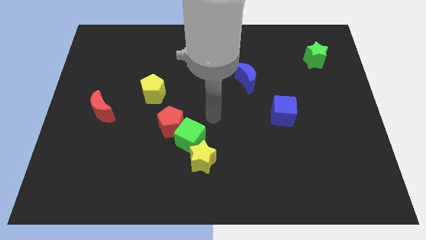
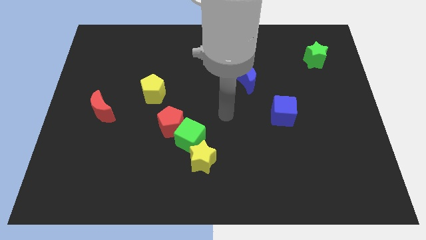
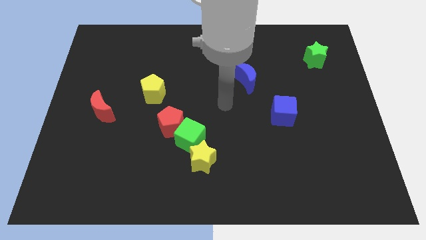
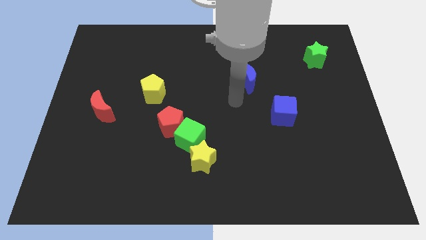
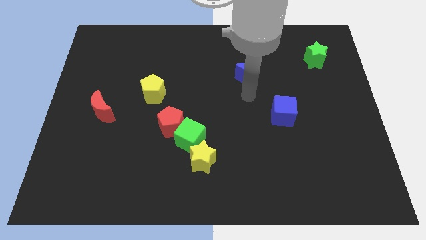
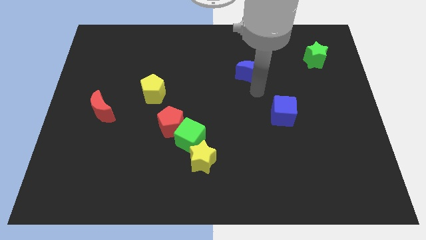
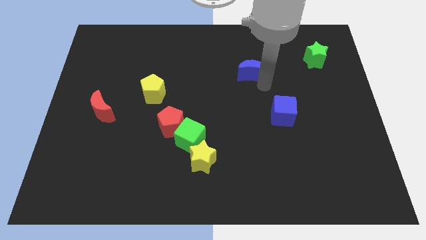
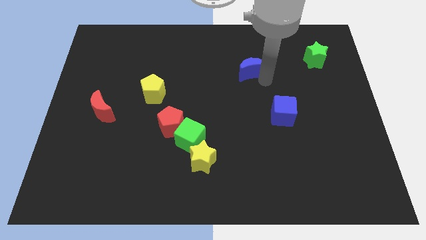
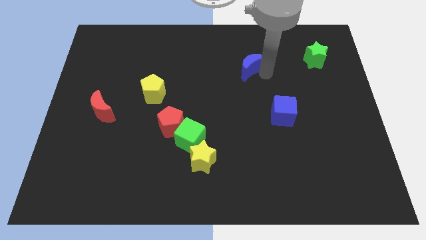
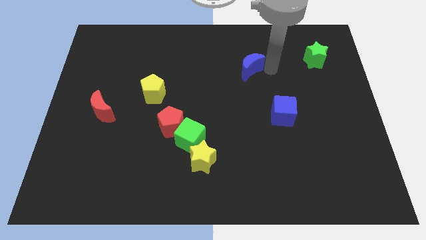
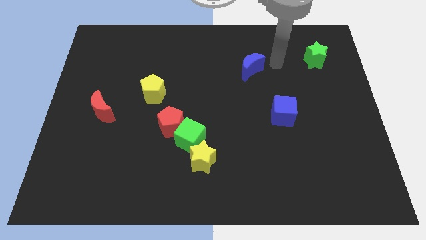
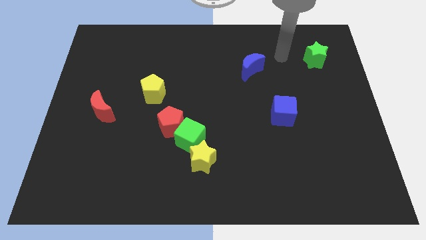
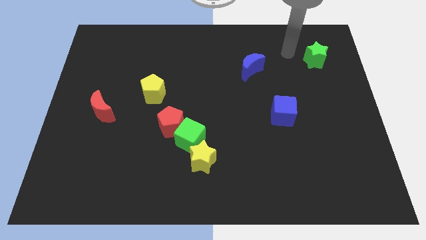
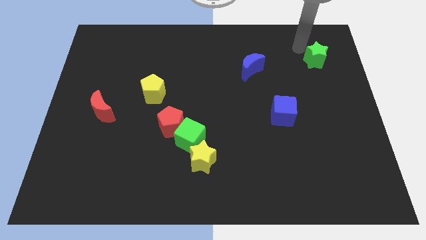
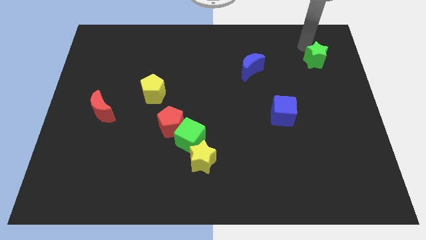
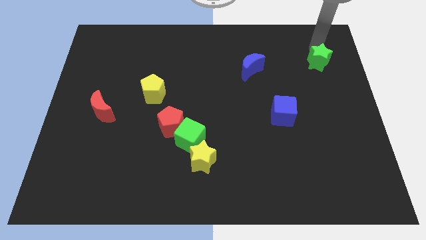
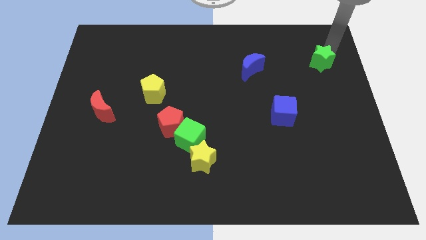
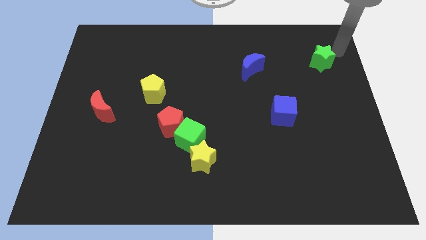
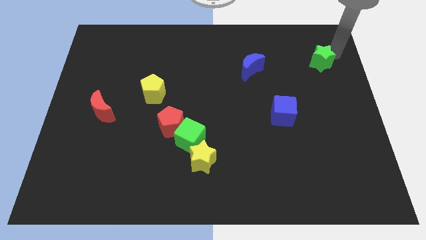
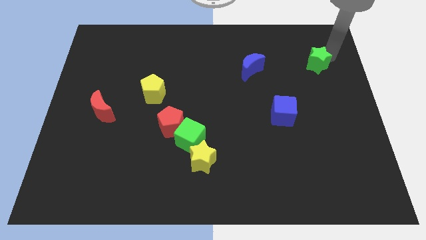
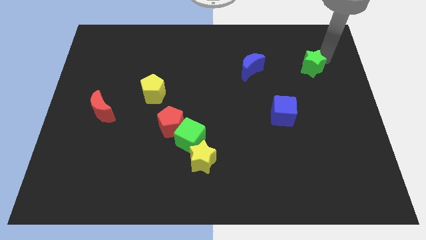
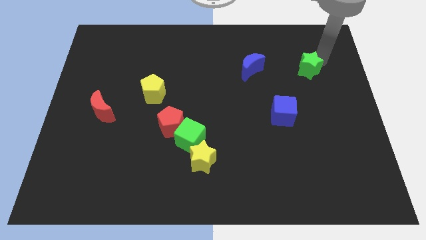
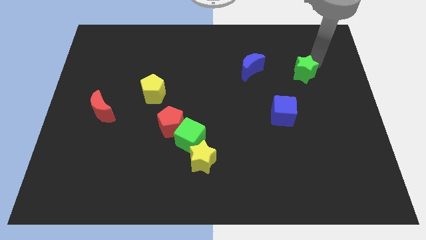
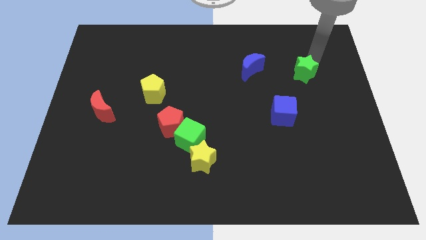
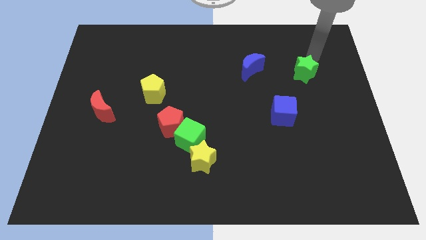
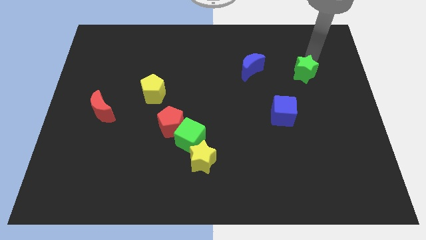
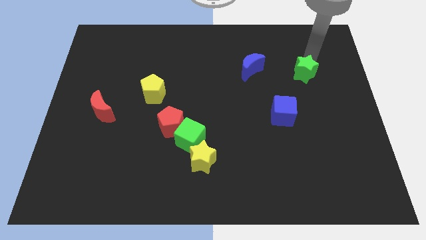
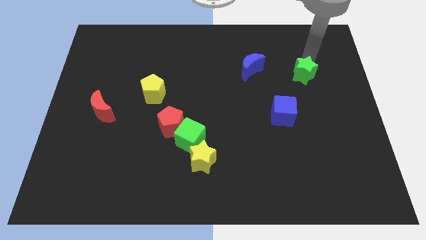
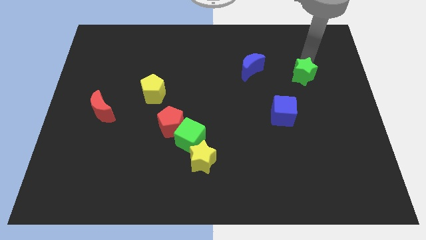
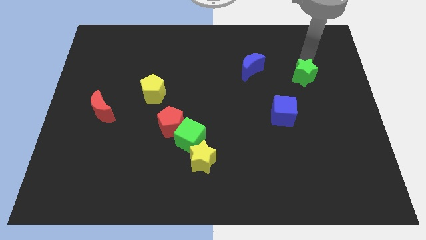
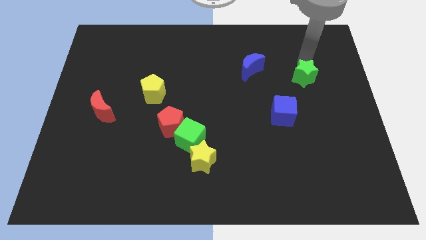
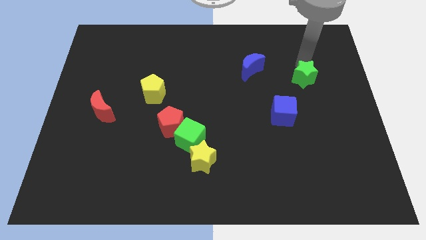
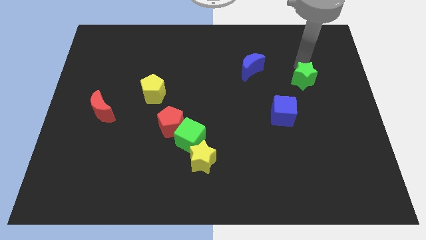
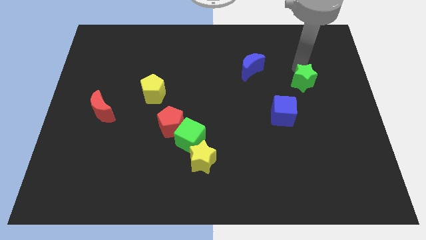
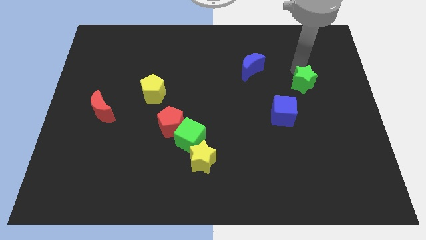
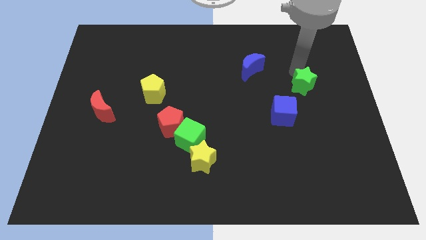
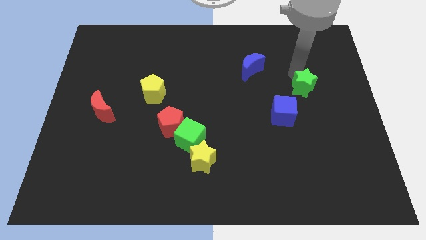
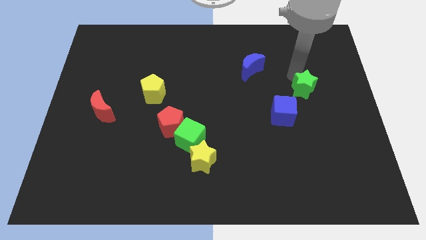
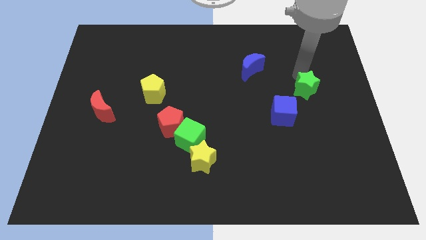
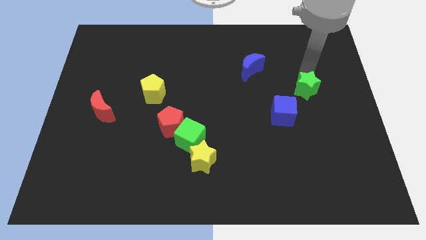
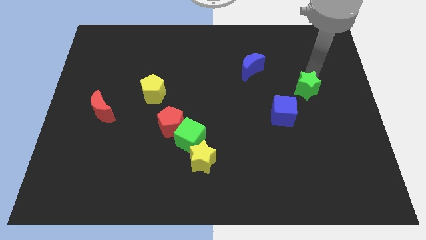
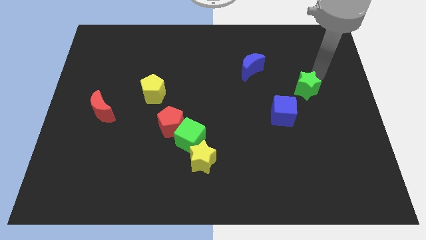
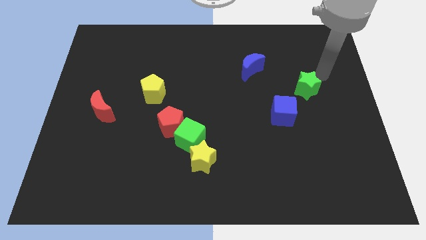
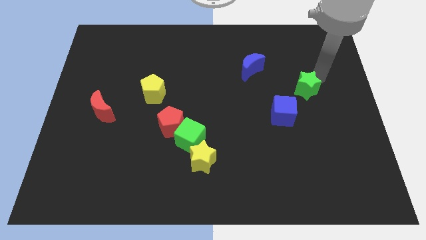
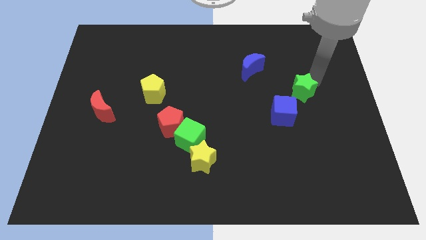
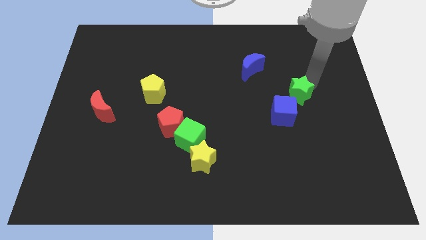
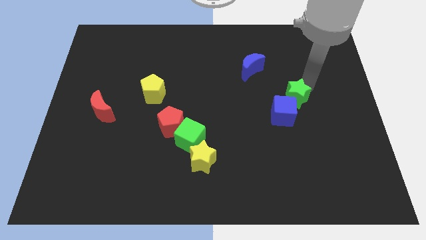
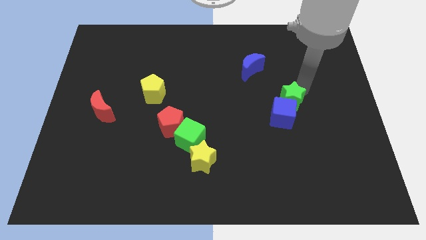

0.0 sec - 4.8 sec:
push the green star to the blue cube

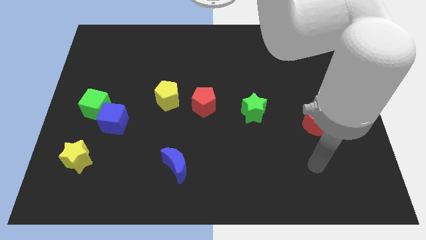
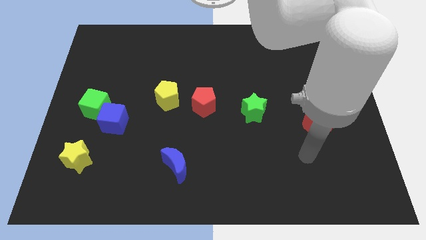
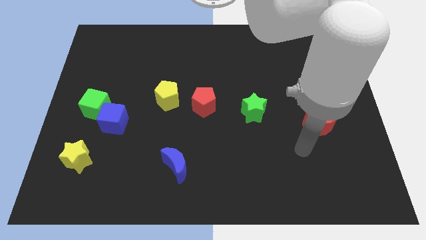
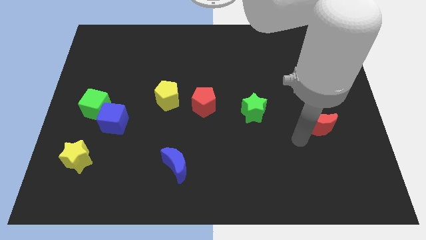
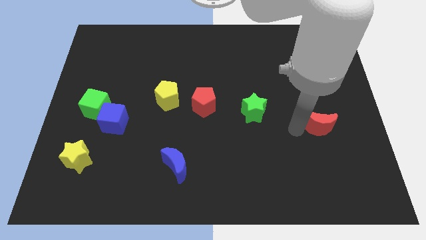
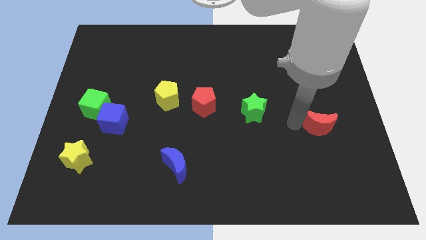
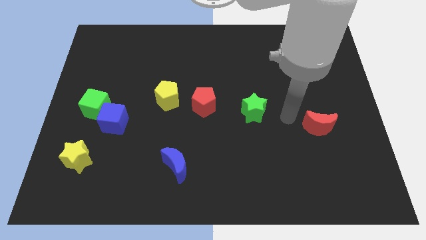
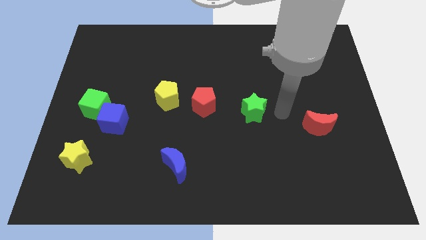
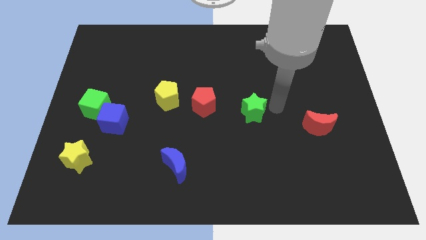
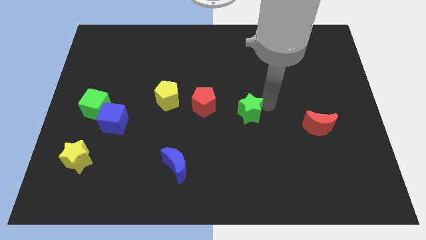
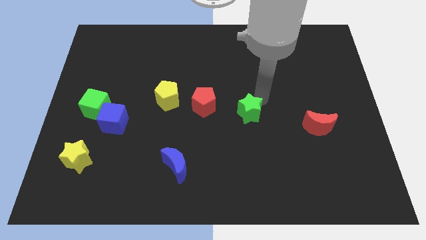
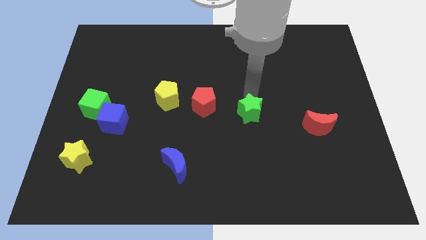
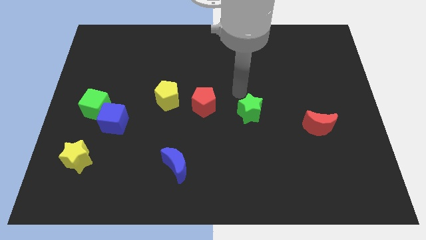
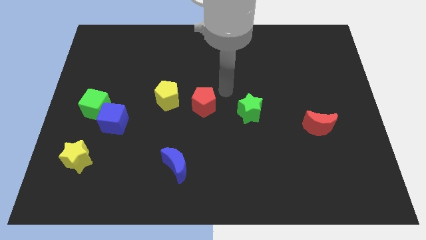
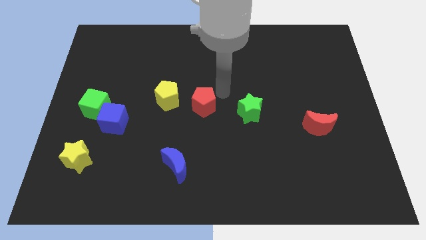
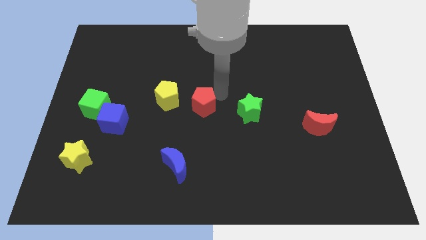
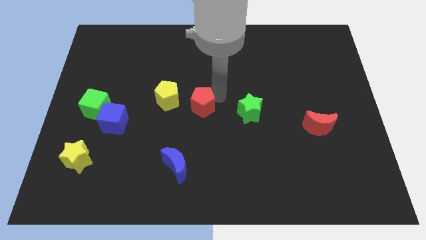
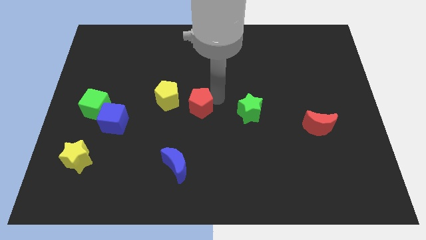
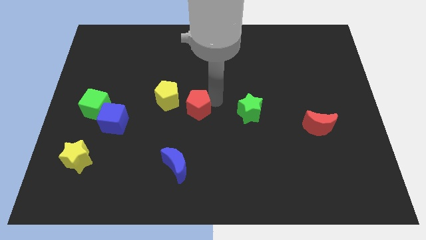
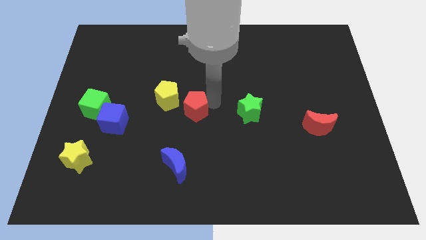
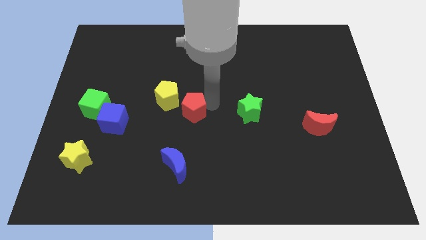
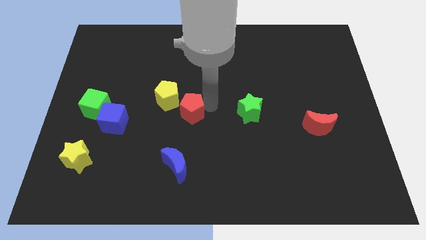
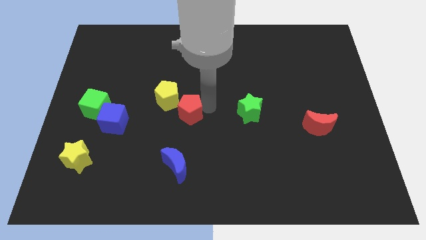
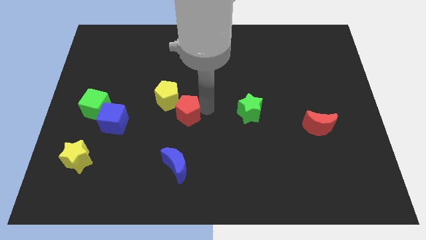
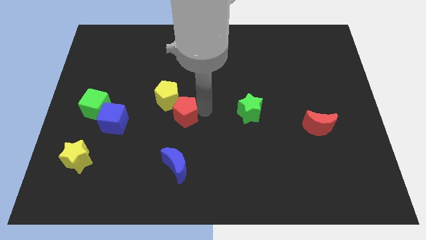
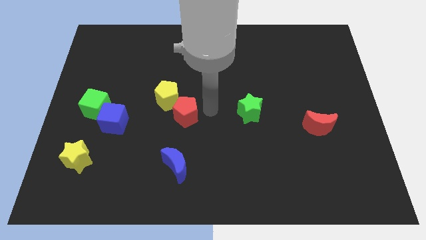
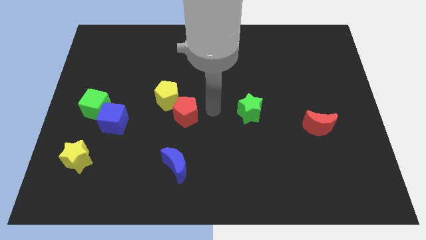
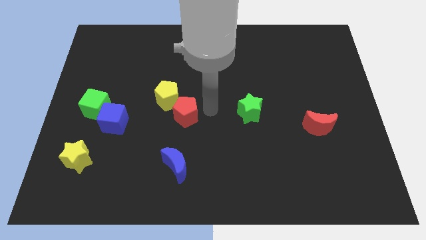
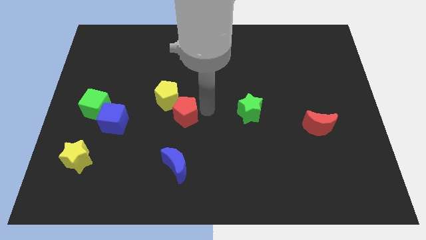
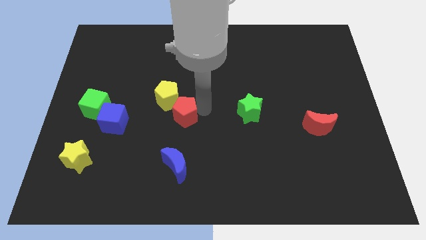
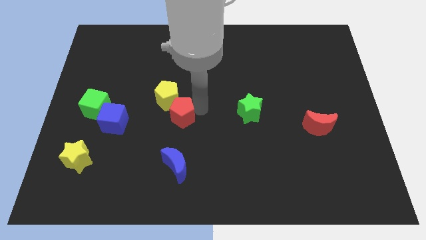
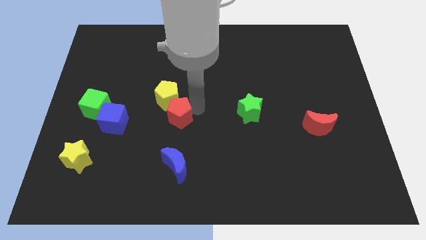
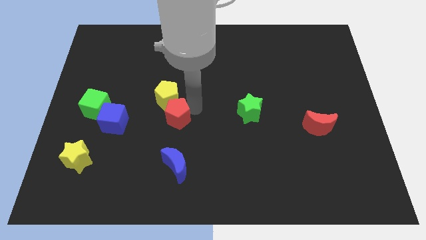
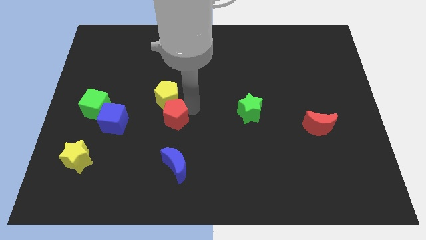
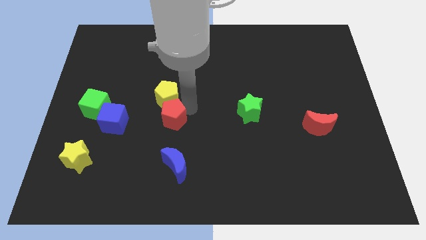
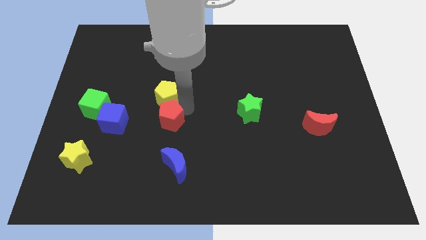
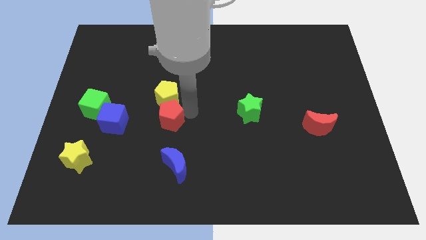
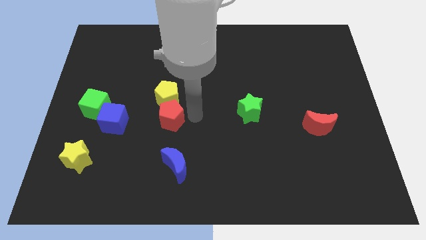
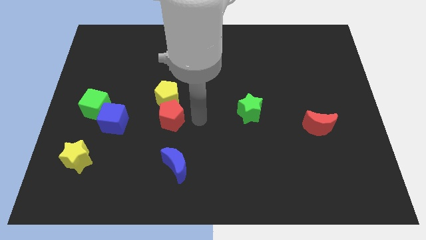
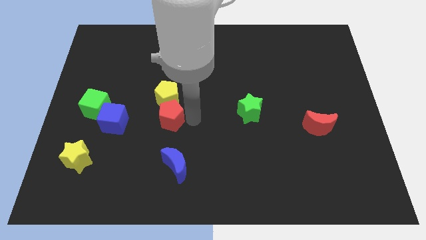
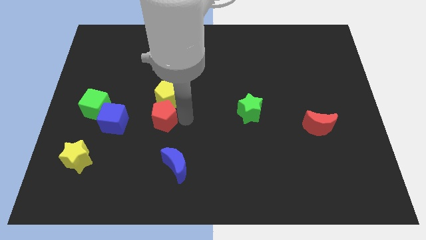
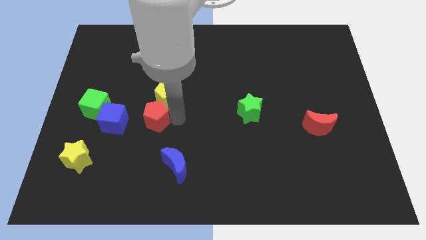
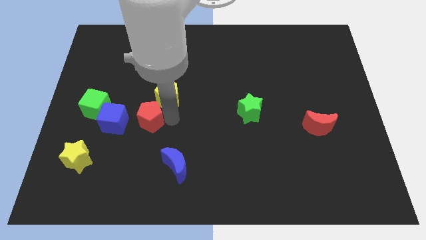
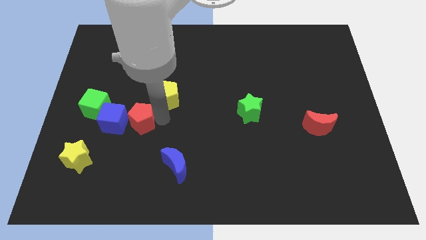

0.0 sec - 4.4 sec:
push the red pentagon next to the blue cube
